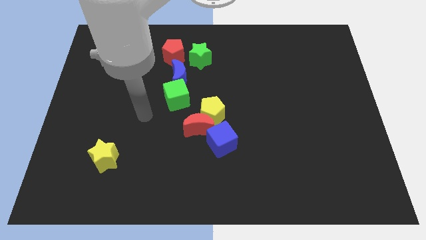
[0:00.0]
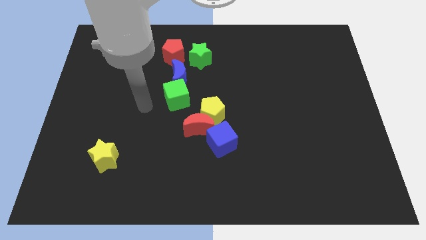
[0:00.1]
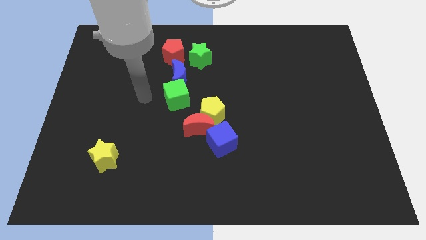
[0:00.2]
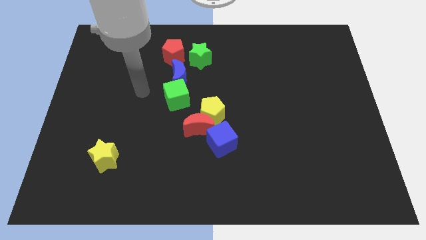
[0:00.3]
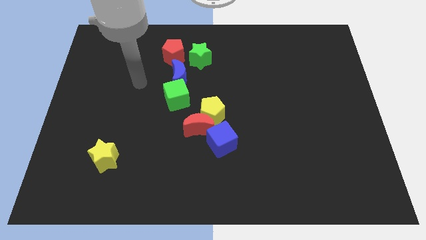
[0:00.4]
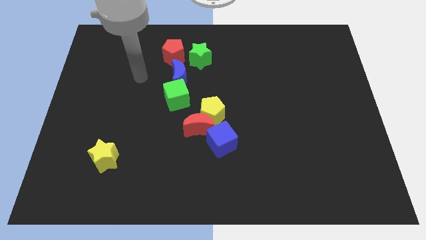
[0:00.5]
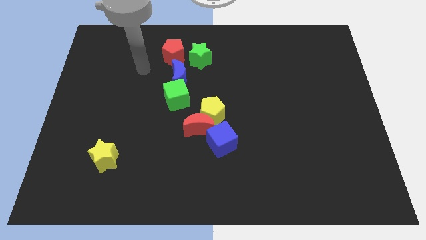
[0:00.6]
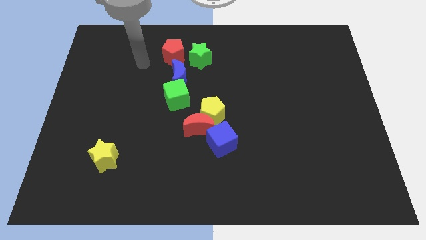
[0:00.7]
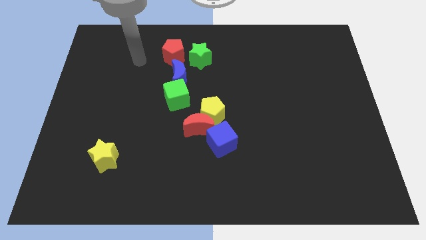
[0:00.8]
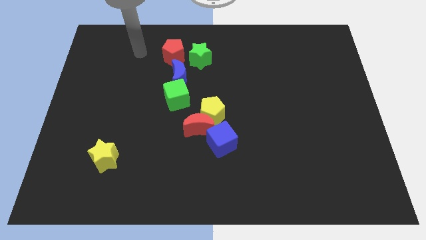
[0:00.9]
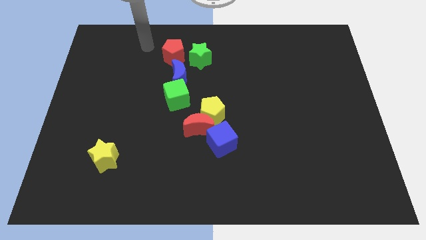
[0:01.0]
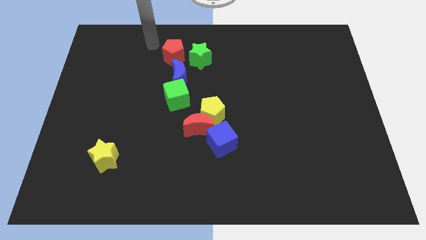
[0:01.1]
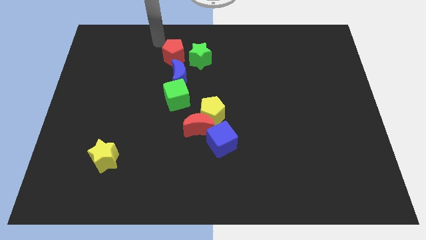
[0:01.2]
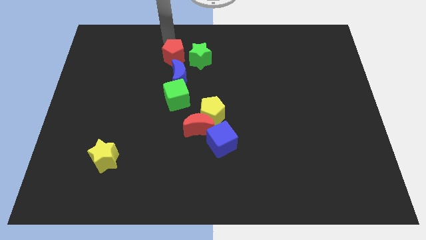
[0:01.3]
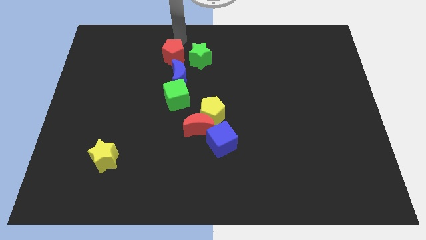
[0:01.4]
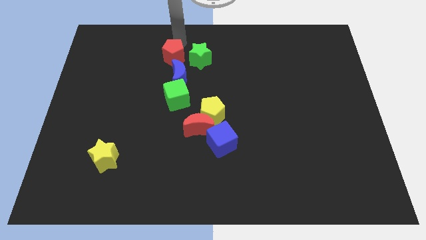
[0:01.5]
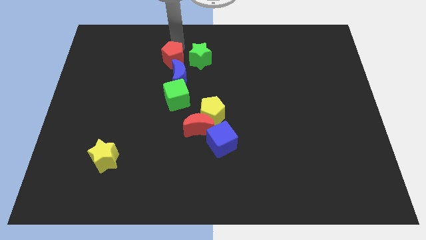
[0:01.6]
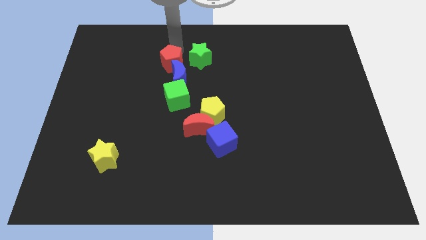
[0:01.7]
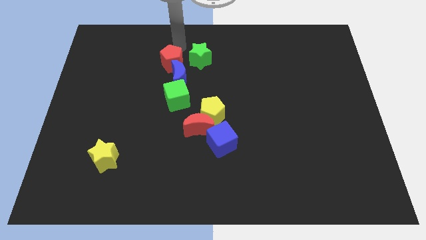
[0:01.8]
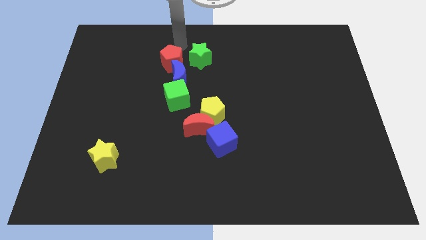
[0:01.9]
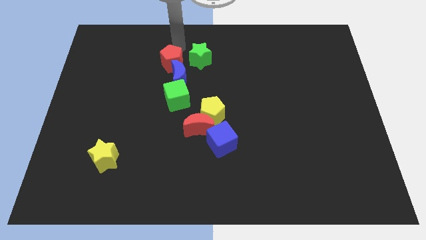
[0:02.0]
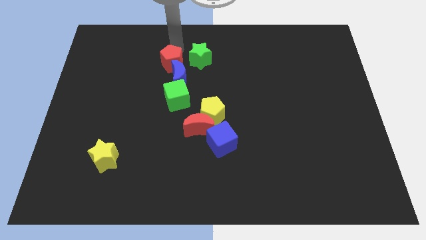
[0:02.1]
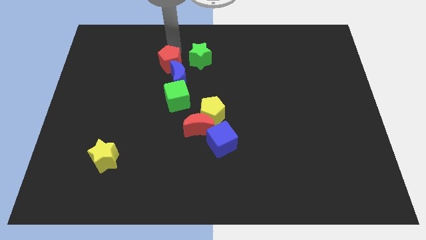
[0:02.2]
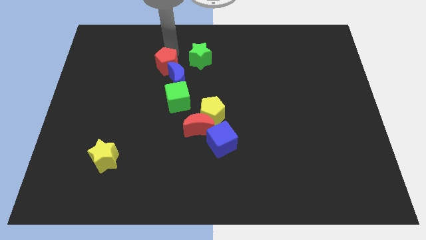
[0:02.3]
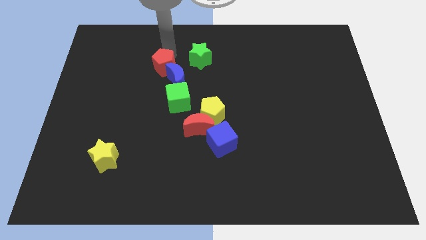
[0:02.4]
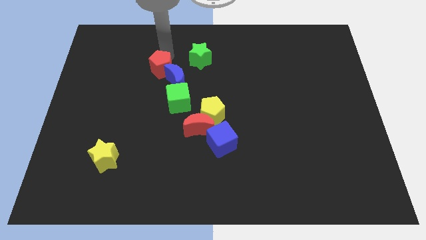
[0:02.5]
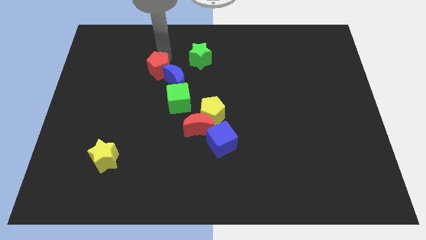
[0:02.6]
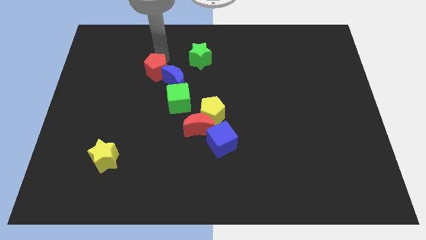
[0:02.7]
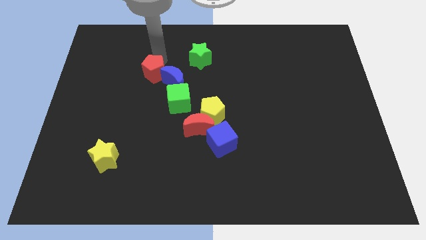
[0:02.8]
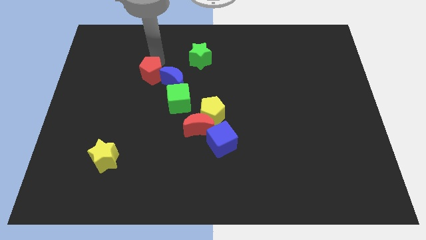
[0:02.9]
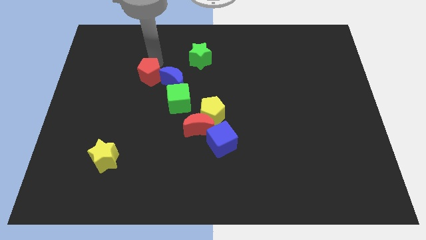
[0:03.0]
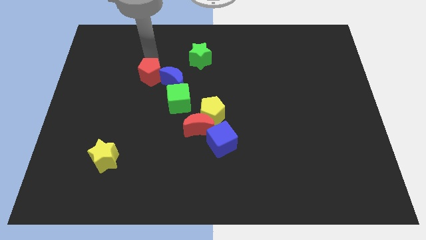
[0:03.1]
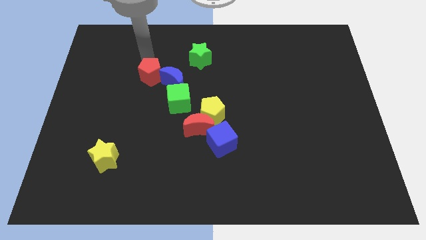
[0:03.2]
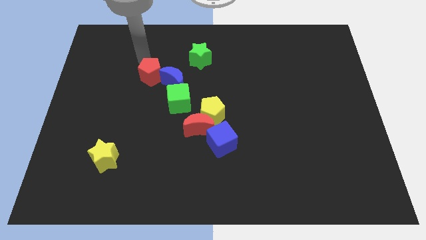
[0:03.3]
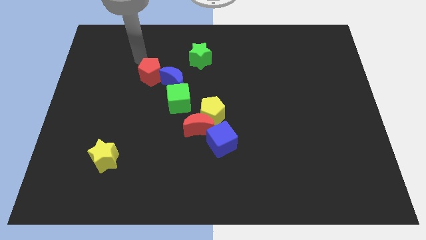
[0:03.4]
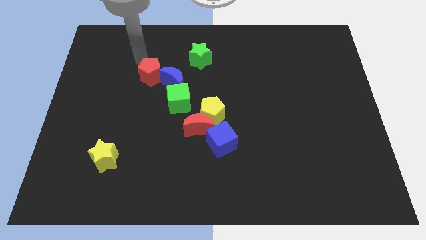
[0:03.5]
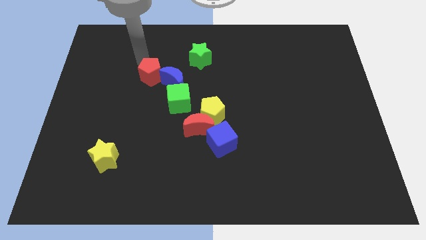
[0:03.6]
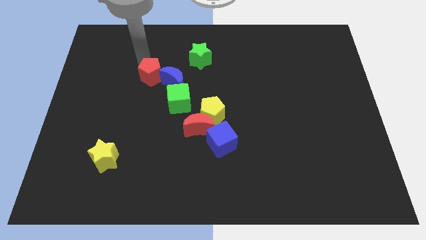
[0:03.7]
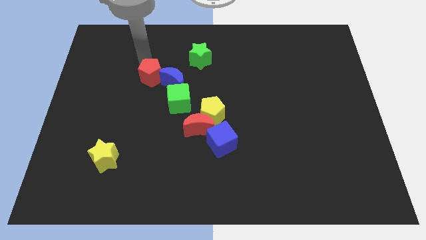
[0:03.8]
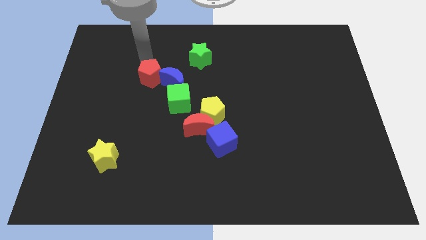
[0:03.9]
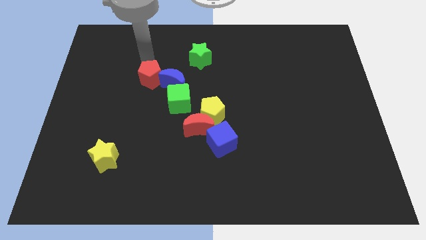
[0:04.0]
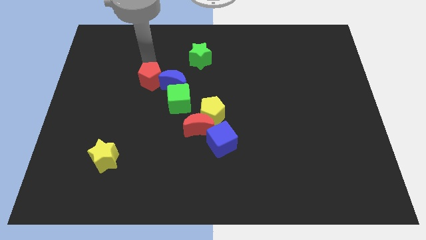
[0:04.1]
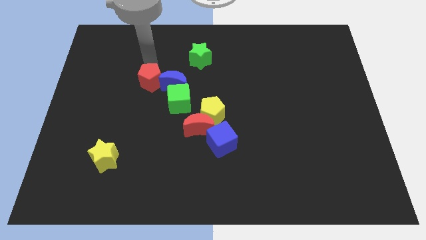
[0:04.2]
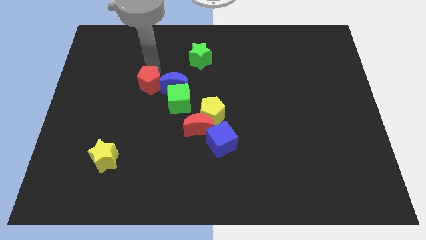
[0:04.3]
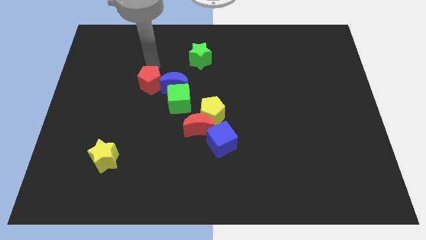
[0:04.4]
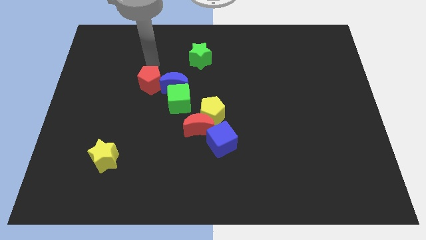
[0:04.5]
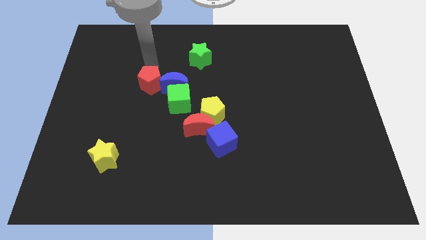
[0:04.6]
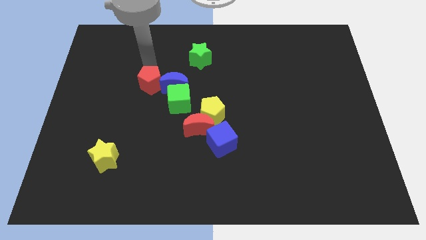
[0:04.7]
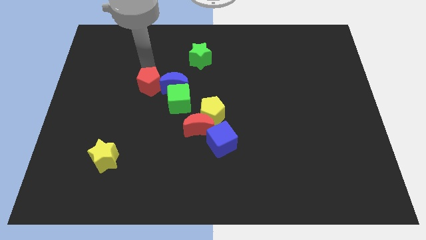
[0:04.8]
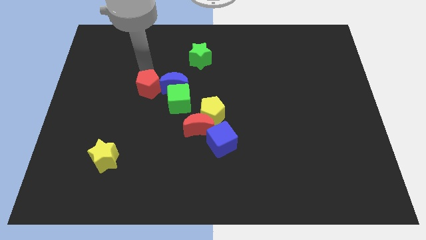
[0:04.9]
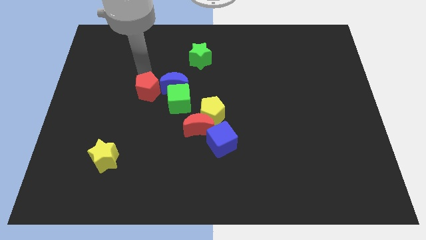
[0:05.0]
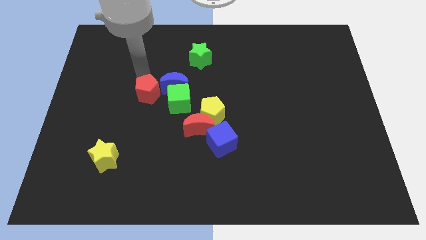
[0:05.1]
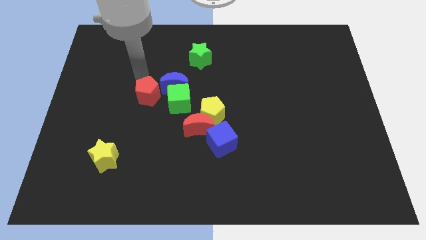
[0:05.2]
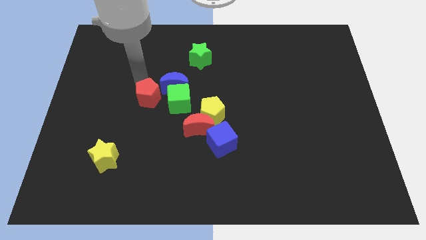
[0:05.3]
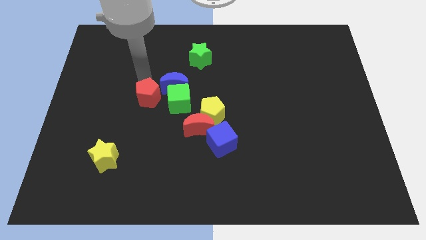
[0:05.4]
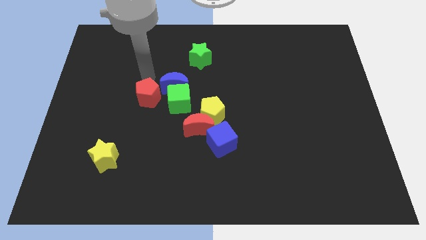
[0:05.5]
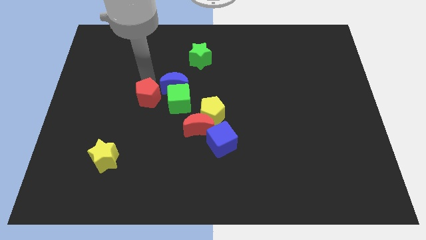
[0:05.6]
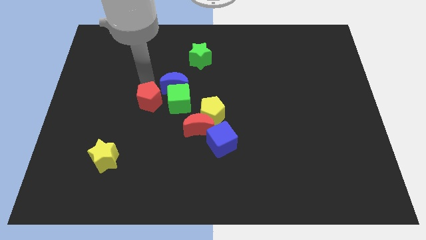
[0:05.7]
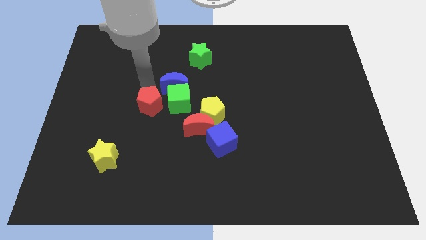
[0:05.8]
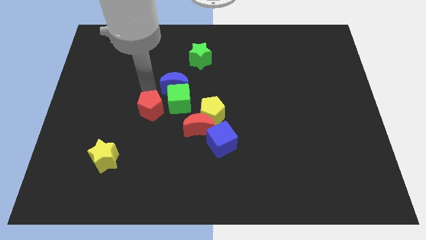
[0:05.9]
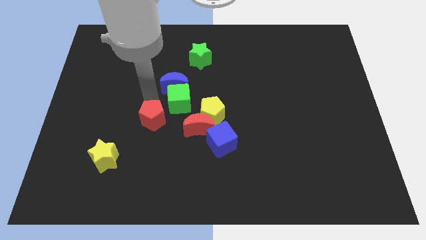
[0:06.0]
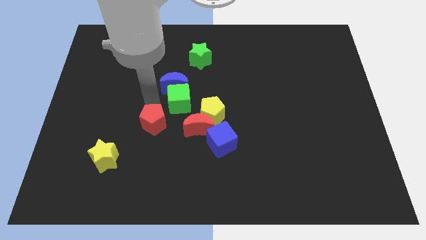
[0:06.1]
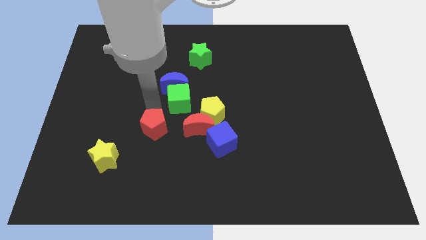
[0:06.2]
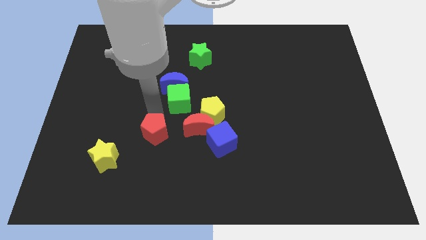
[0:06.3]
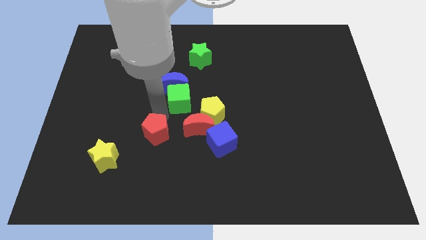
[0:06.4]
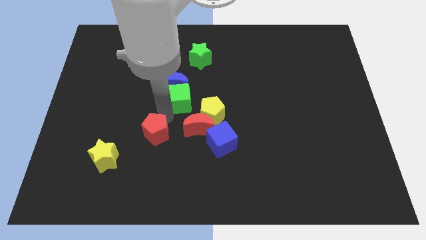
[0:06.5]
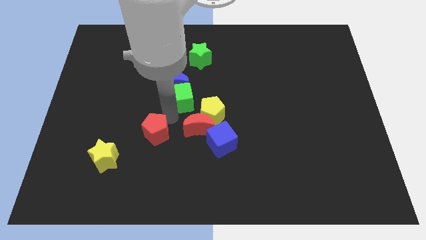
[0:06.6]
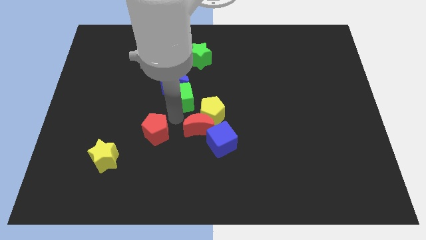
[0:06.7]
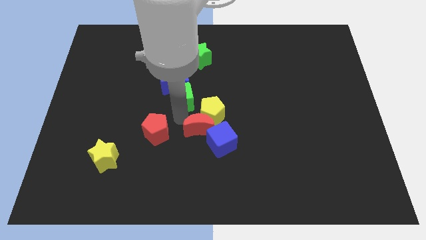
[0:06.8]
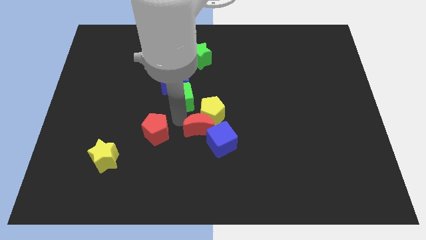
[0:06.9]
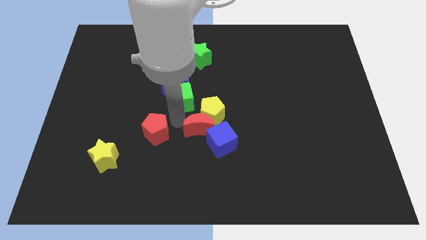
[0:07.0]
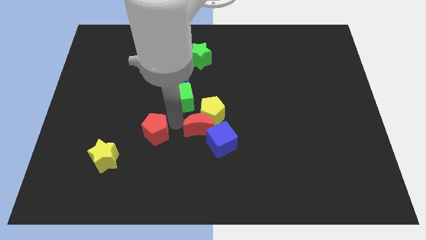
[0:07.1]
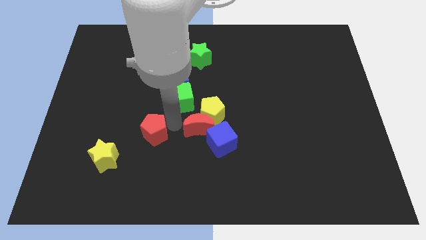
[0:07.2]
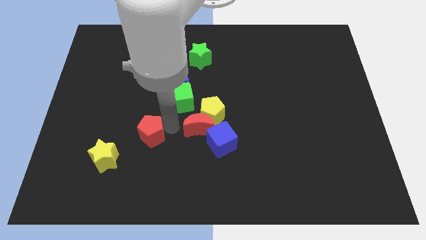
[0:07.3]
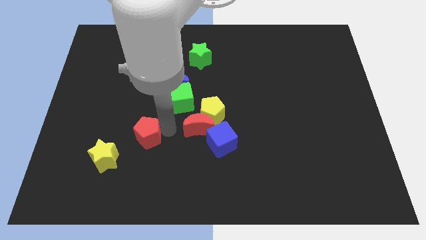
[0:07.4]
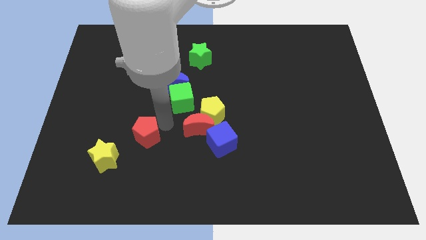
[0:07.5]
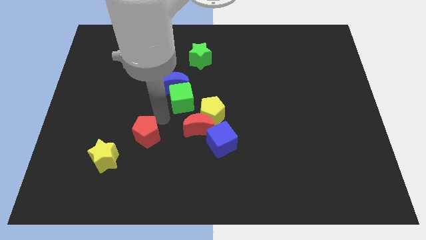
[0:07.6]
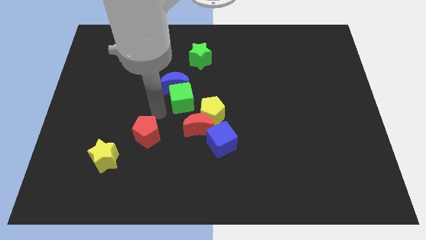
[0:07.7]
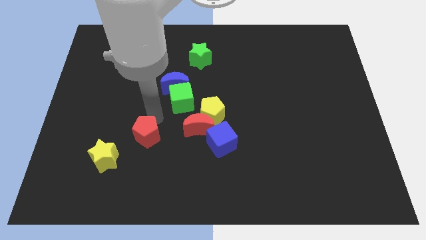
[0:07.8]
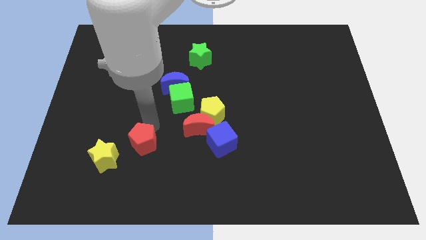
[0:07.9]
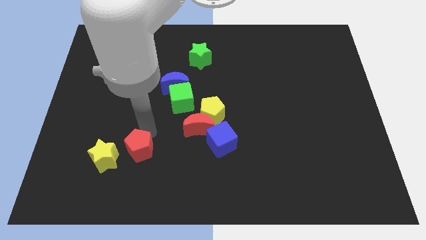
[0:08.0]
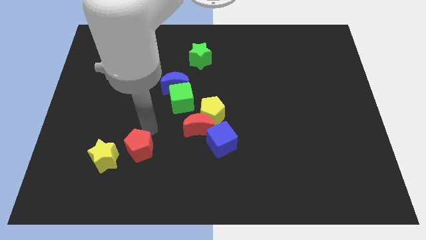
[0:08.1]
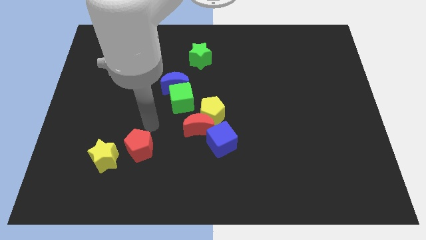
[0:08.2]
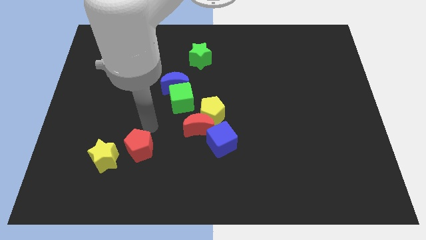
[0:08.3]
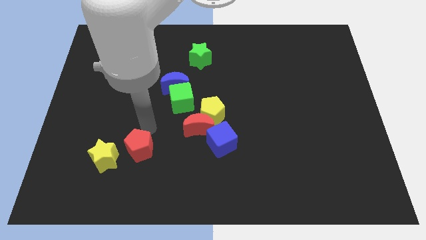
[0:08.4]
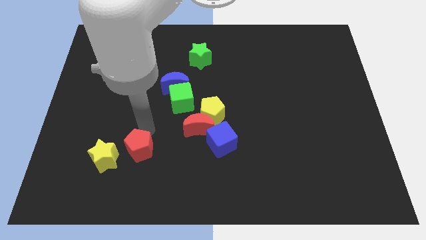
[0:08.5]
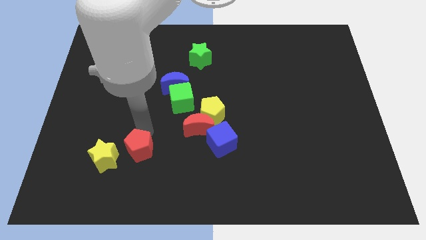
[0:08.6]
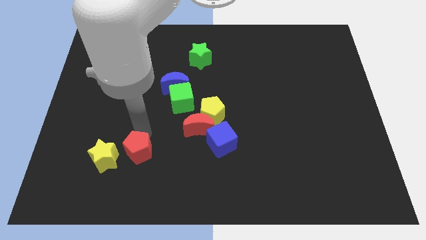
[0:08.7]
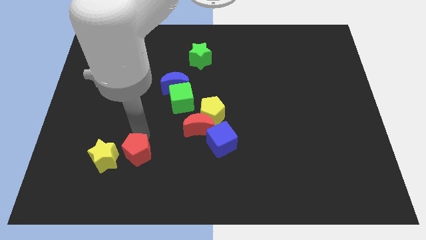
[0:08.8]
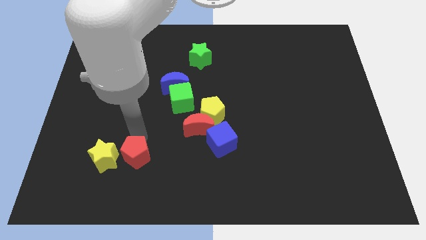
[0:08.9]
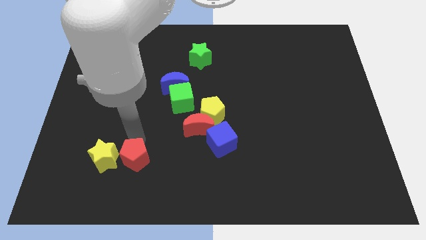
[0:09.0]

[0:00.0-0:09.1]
slide the red pentagon to the bottom right side of the yellow star
